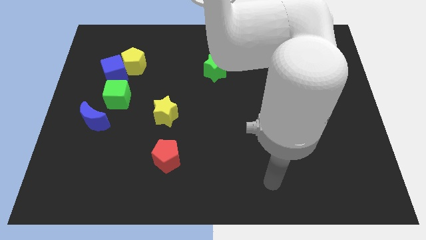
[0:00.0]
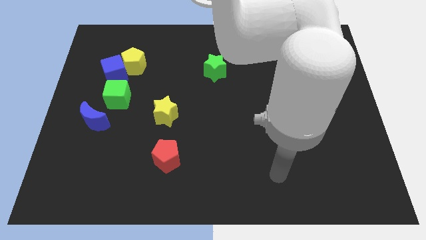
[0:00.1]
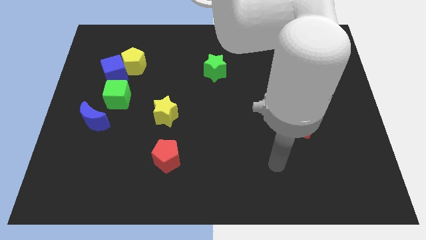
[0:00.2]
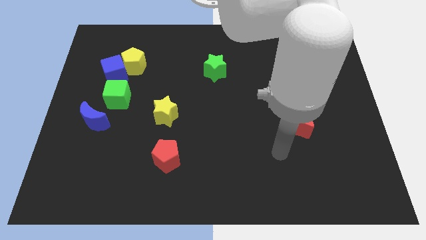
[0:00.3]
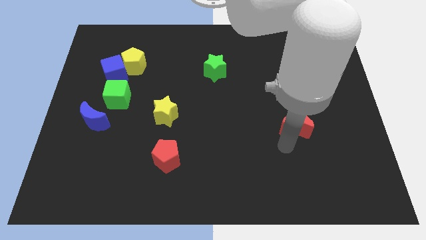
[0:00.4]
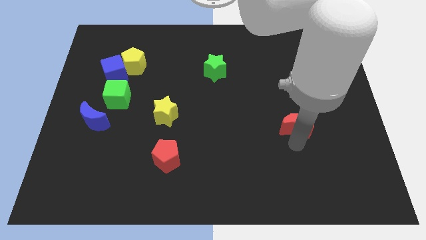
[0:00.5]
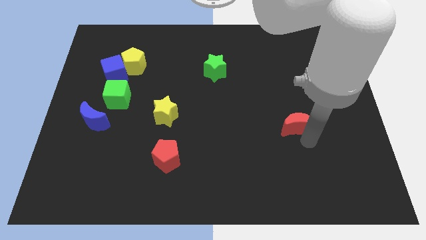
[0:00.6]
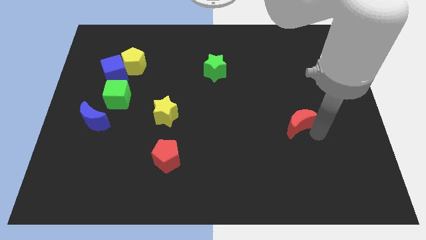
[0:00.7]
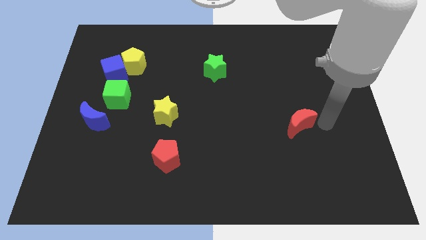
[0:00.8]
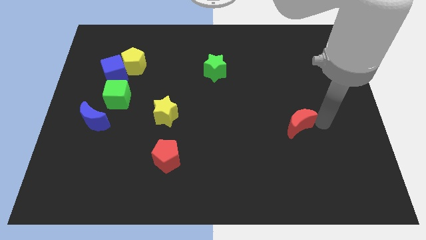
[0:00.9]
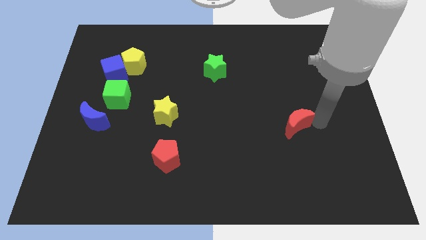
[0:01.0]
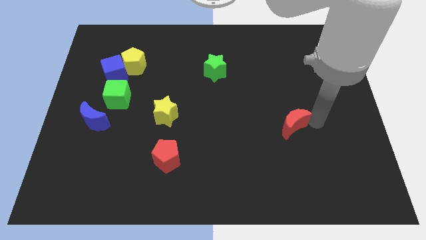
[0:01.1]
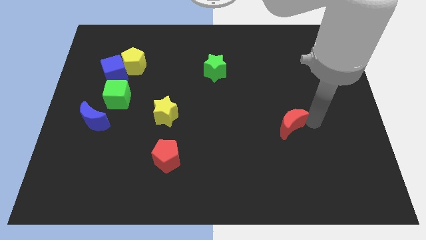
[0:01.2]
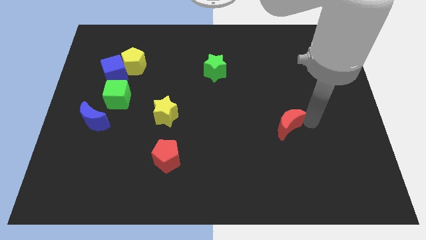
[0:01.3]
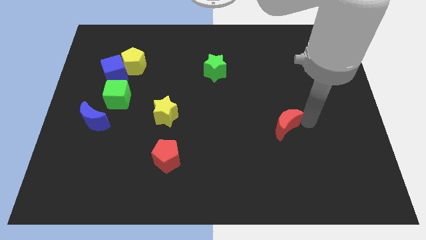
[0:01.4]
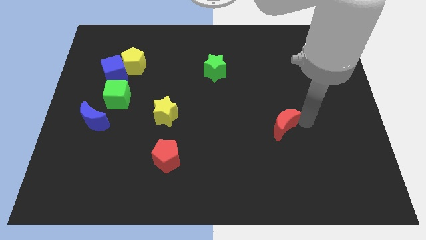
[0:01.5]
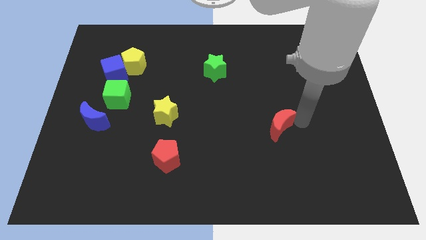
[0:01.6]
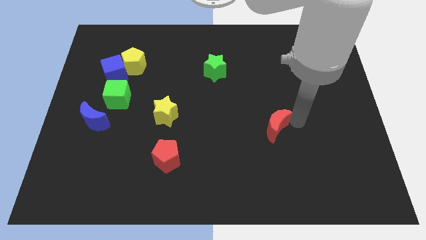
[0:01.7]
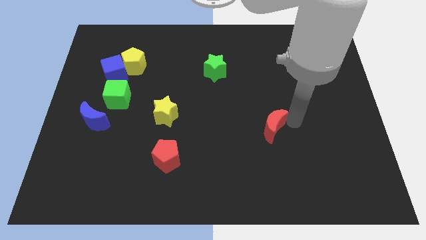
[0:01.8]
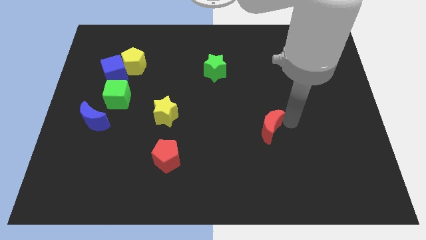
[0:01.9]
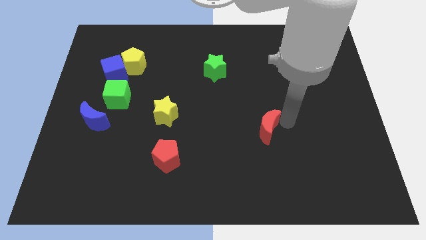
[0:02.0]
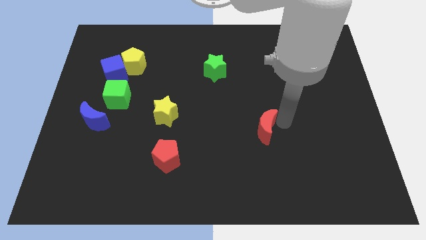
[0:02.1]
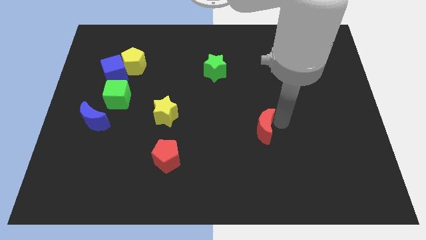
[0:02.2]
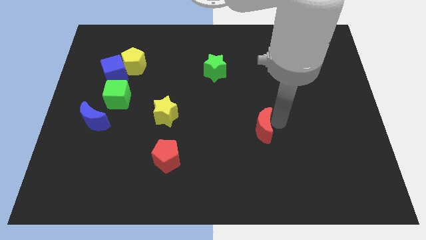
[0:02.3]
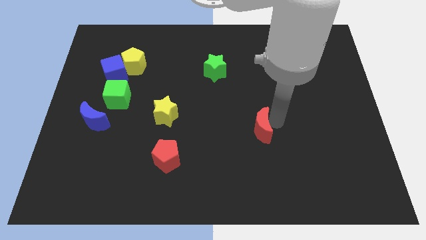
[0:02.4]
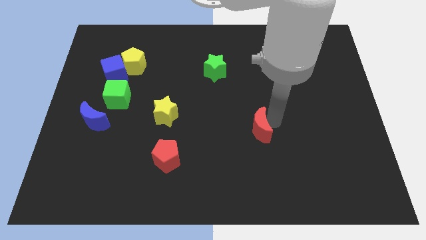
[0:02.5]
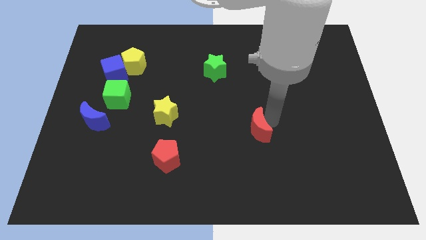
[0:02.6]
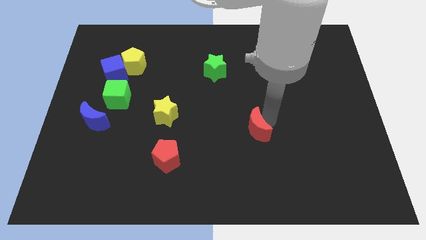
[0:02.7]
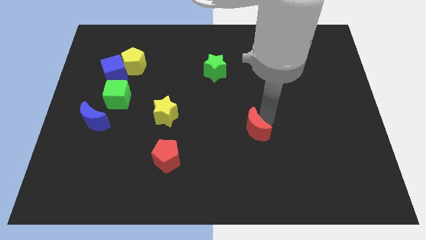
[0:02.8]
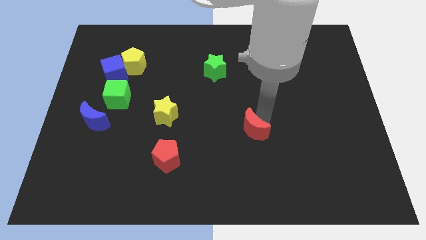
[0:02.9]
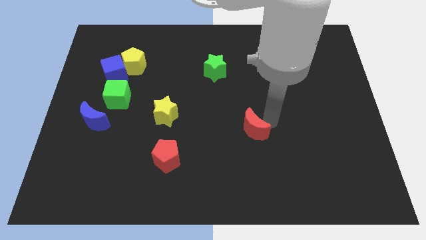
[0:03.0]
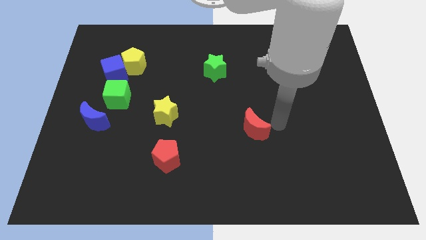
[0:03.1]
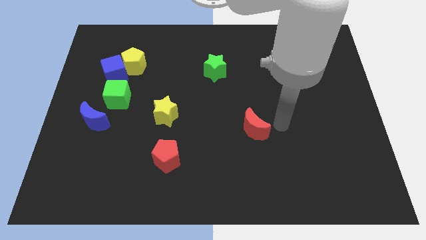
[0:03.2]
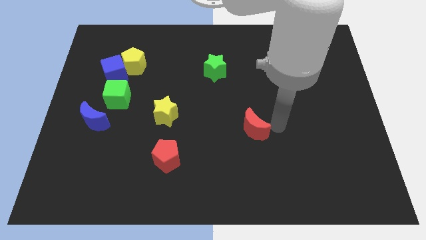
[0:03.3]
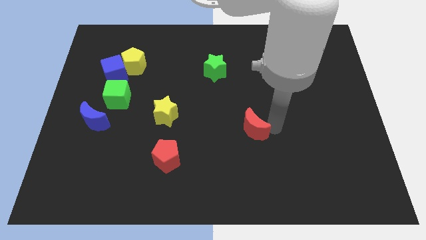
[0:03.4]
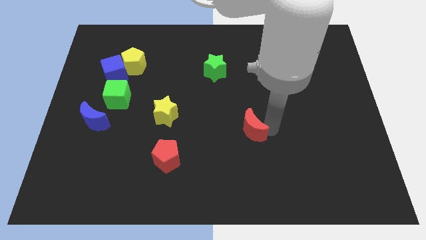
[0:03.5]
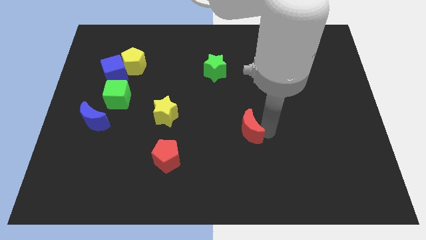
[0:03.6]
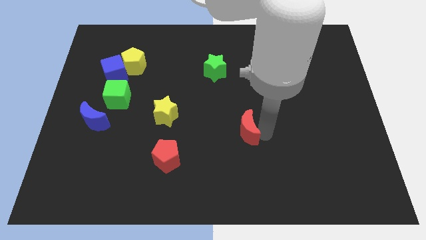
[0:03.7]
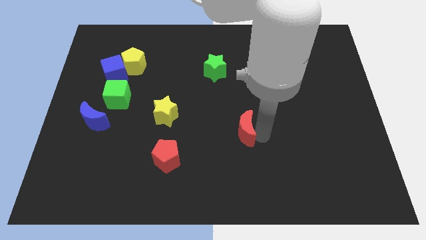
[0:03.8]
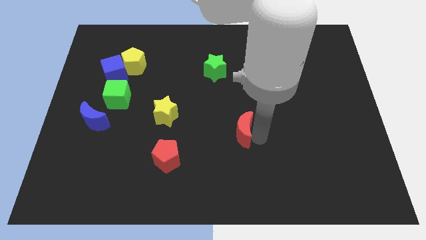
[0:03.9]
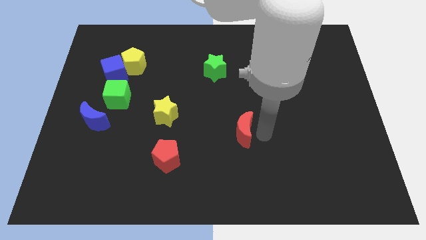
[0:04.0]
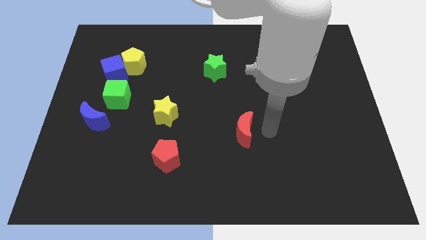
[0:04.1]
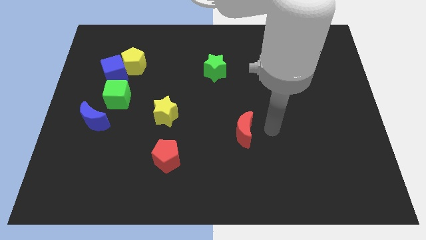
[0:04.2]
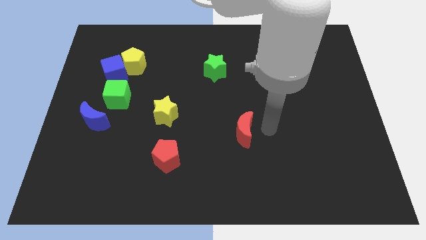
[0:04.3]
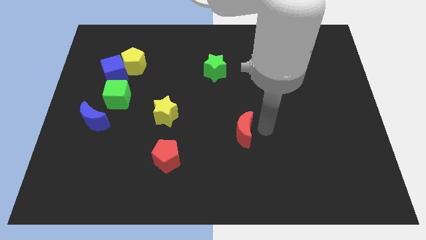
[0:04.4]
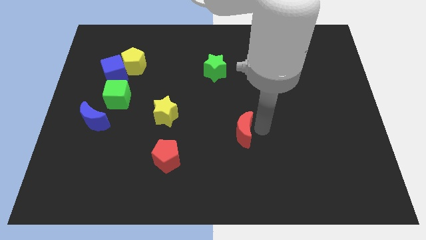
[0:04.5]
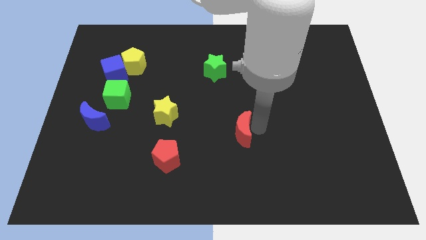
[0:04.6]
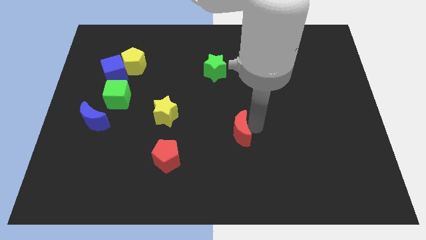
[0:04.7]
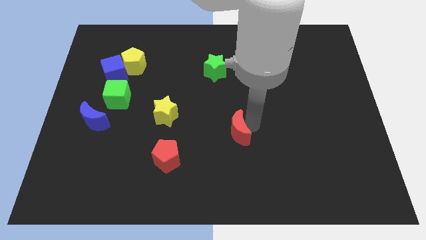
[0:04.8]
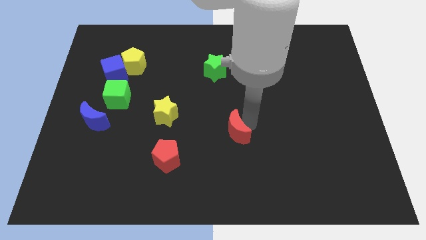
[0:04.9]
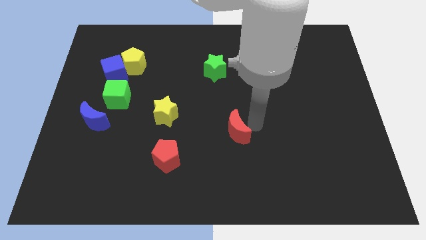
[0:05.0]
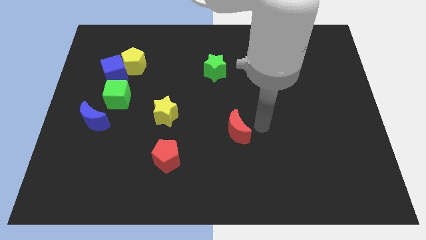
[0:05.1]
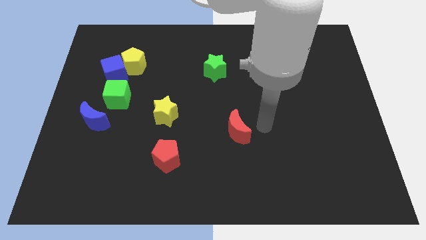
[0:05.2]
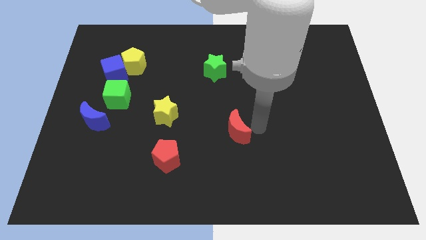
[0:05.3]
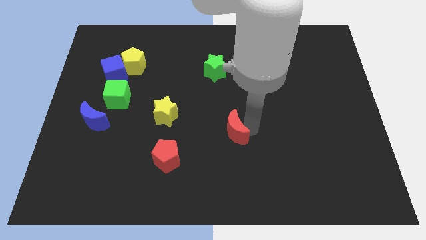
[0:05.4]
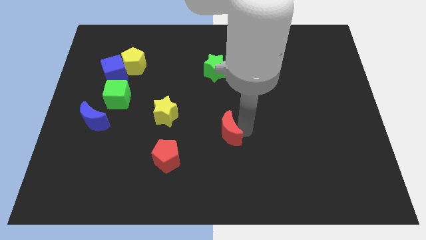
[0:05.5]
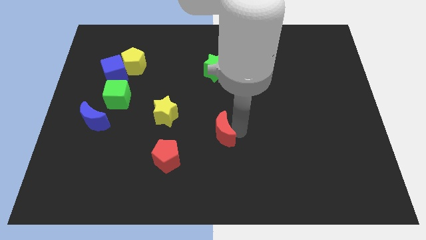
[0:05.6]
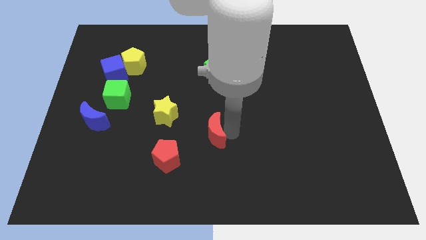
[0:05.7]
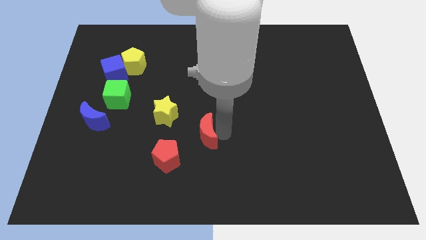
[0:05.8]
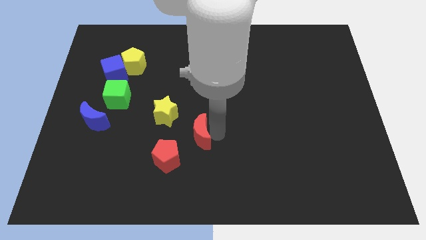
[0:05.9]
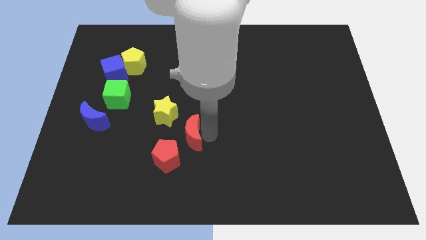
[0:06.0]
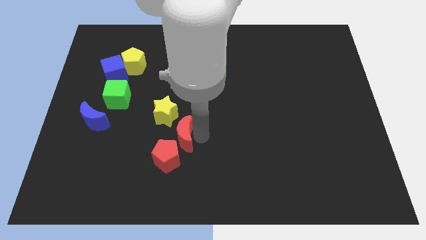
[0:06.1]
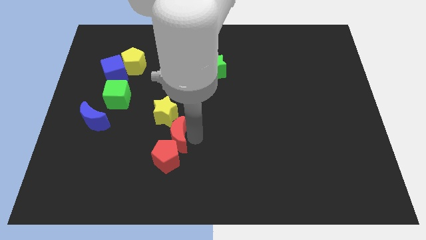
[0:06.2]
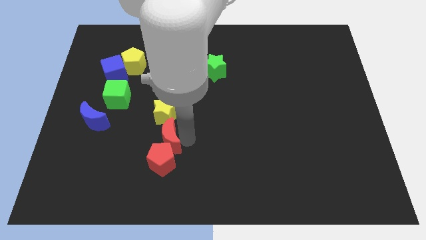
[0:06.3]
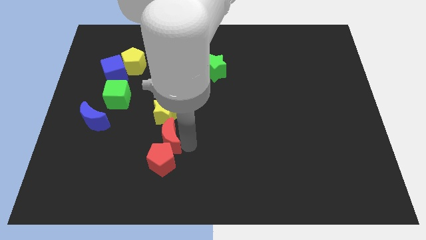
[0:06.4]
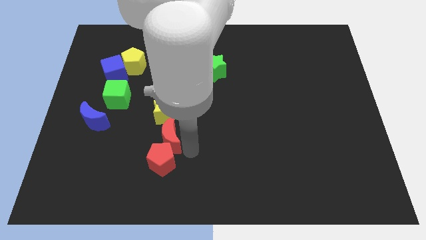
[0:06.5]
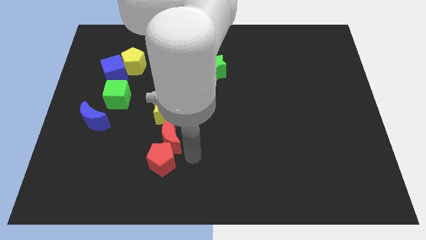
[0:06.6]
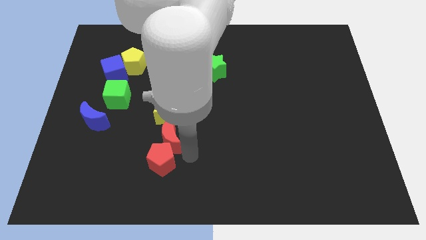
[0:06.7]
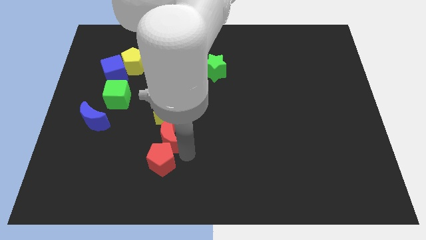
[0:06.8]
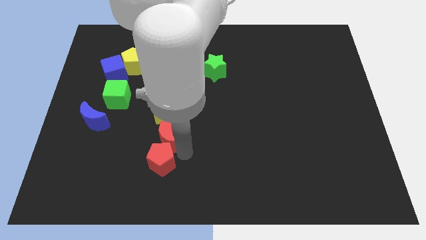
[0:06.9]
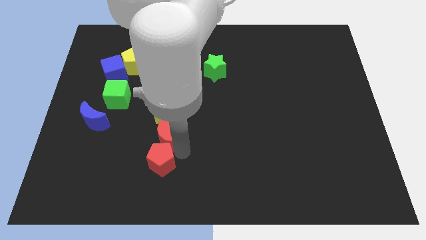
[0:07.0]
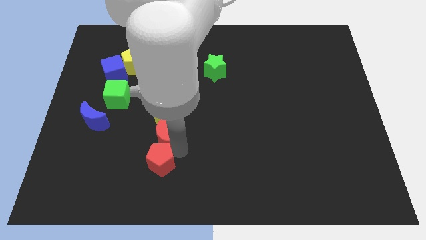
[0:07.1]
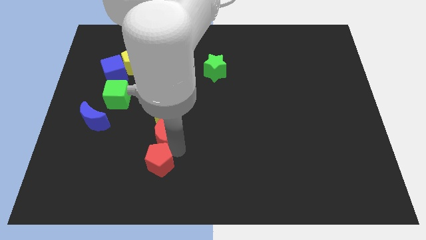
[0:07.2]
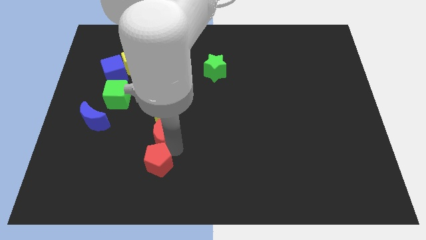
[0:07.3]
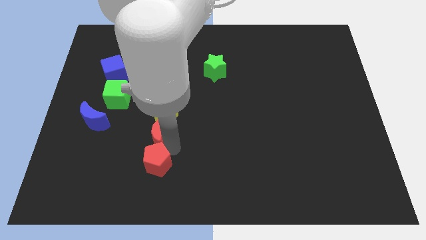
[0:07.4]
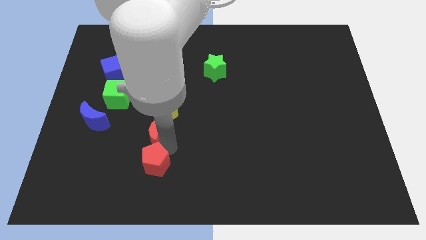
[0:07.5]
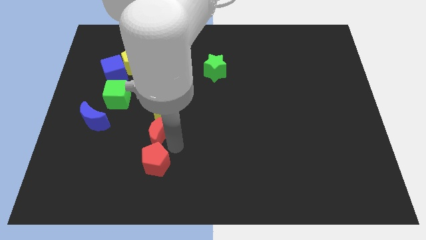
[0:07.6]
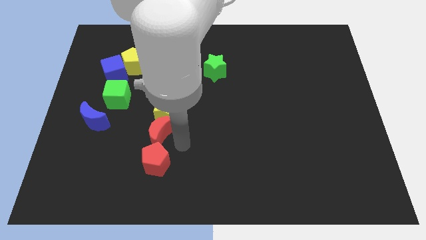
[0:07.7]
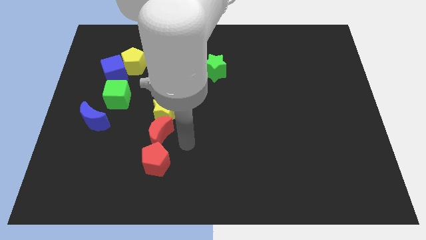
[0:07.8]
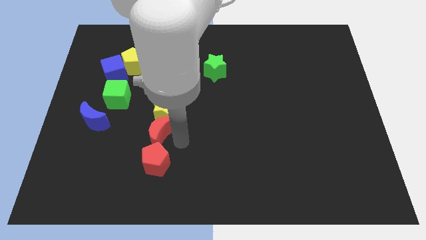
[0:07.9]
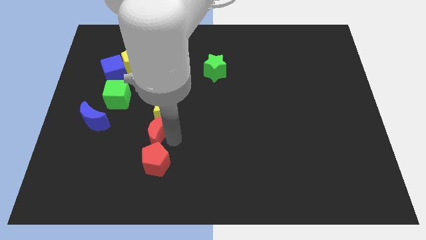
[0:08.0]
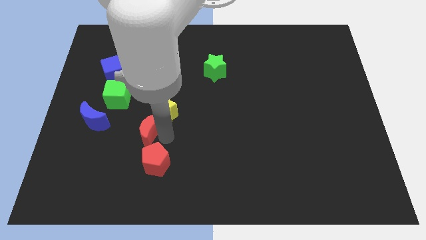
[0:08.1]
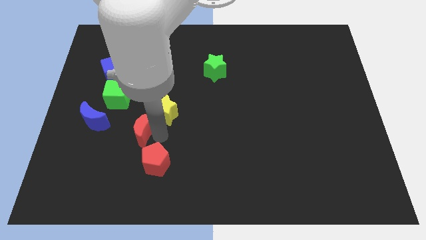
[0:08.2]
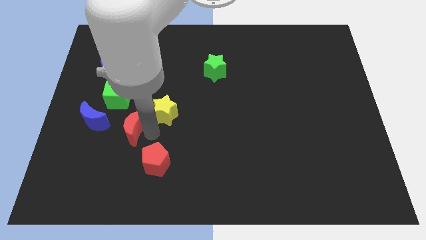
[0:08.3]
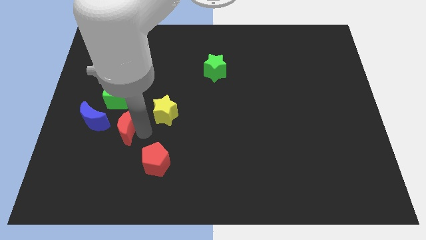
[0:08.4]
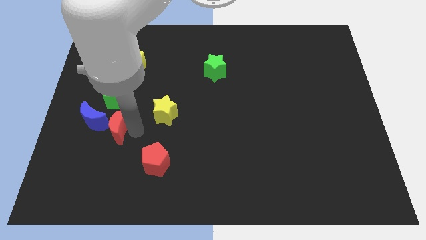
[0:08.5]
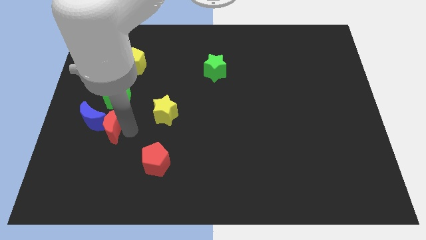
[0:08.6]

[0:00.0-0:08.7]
move the red moon to the blue moon
